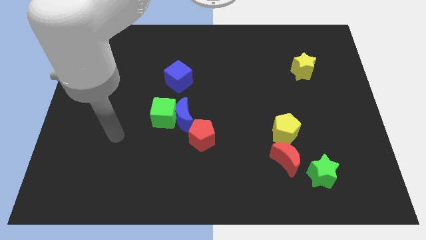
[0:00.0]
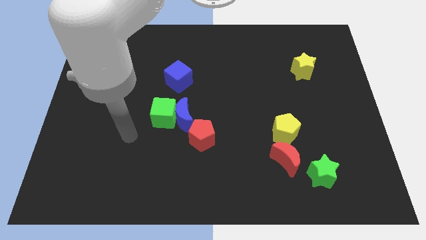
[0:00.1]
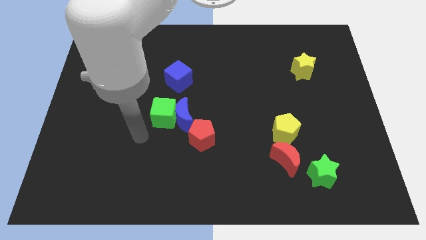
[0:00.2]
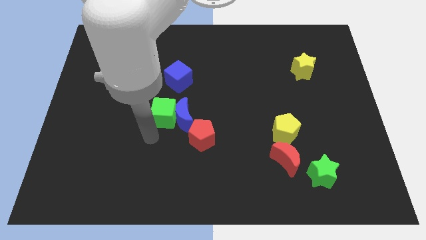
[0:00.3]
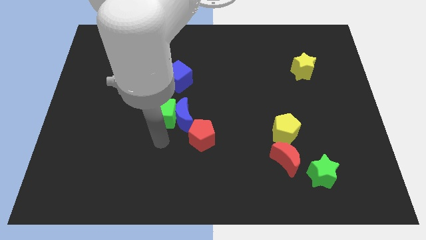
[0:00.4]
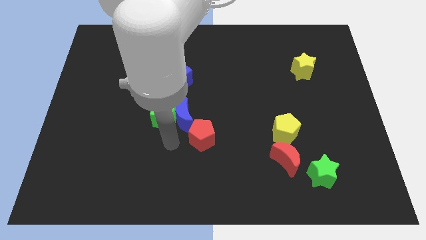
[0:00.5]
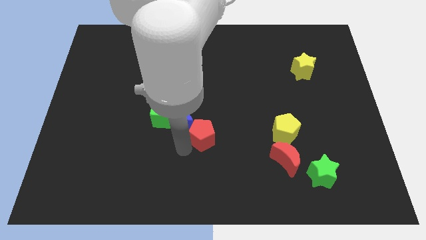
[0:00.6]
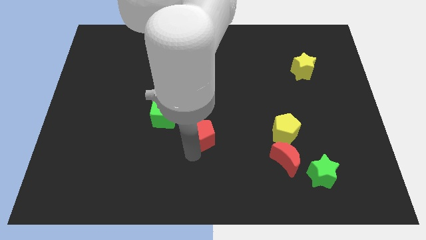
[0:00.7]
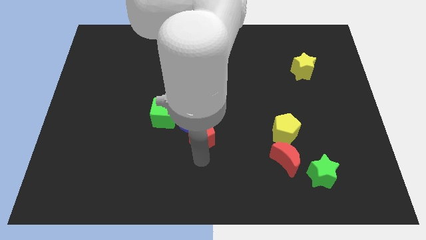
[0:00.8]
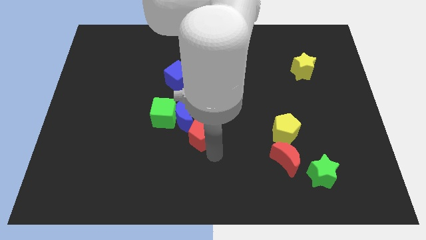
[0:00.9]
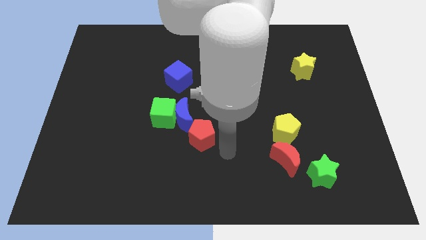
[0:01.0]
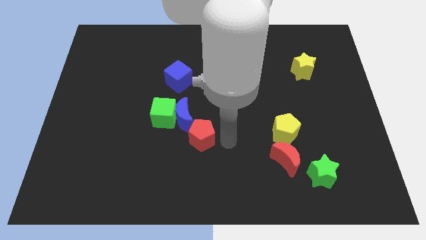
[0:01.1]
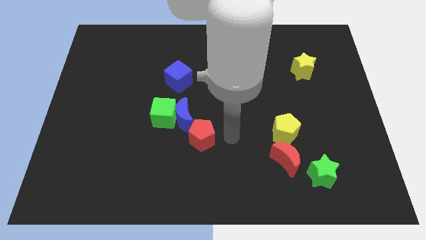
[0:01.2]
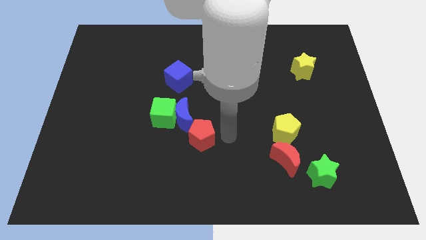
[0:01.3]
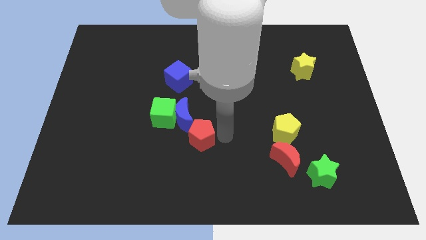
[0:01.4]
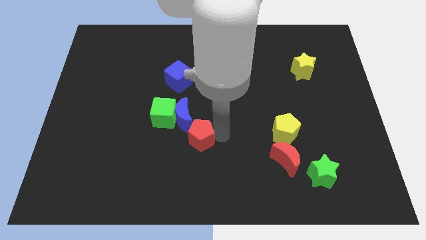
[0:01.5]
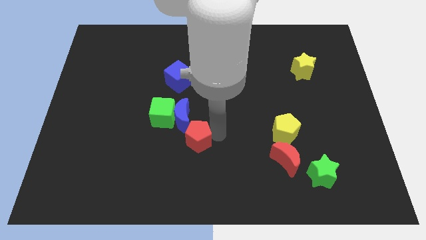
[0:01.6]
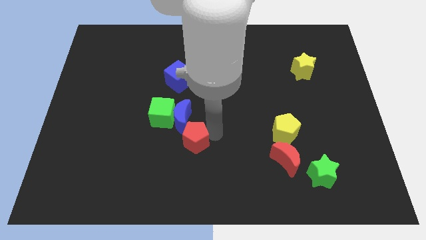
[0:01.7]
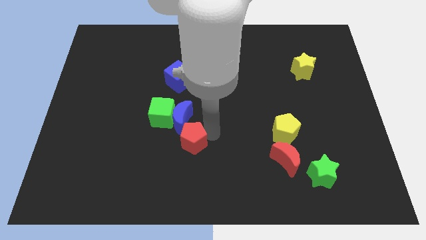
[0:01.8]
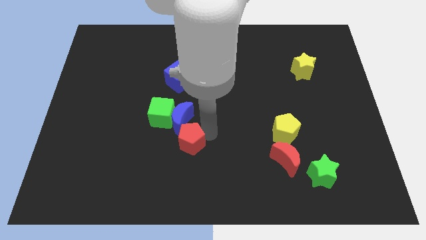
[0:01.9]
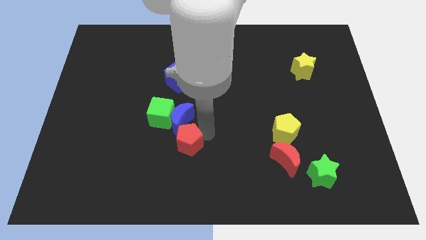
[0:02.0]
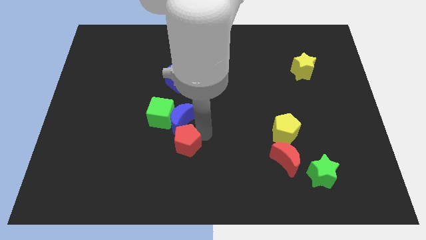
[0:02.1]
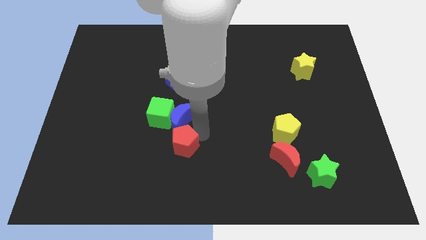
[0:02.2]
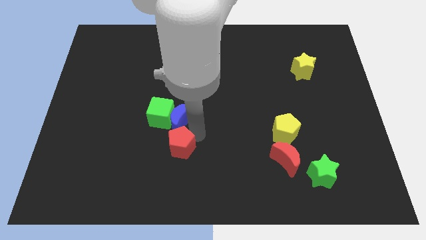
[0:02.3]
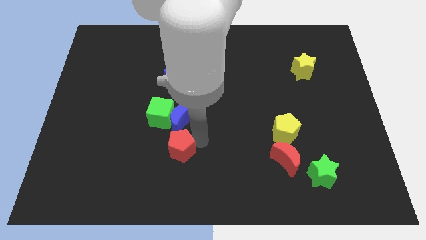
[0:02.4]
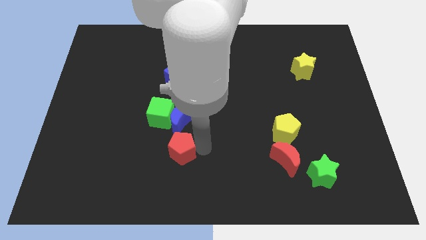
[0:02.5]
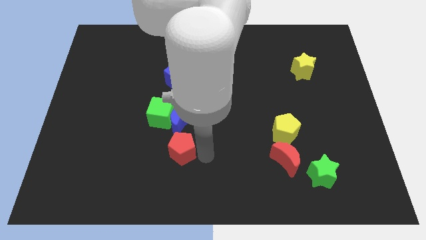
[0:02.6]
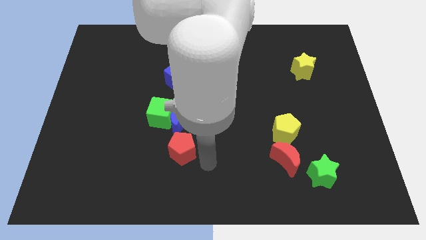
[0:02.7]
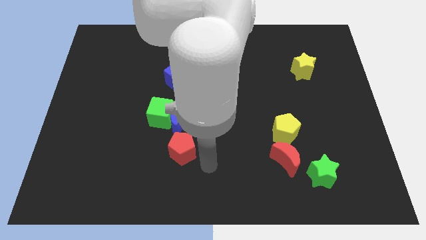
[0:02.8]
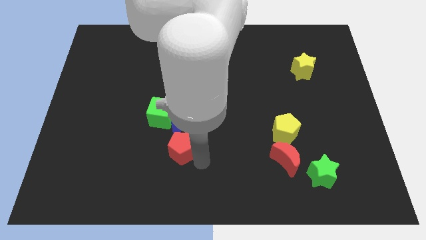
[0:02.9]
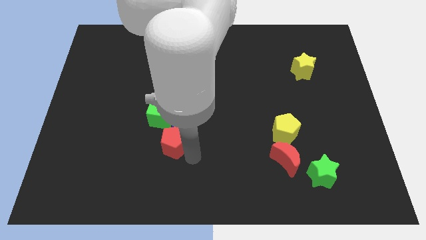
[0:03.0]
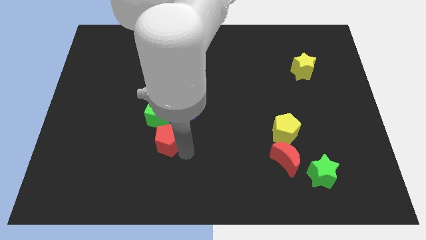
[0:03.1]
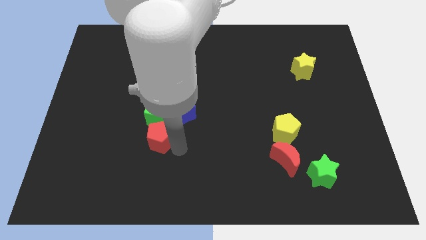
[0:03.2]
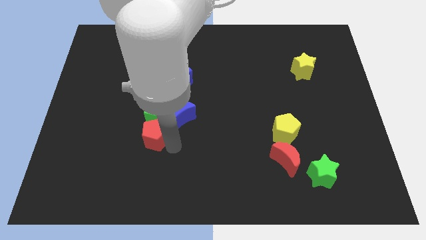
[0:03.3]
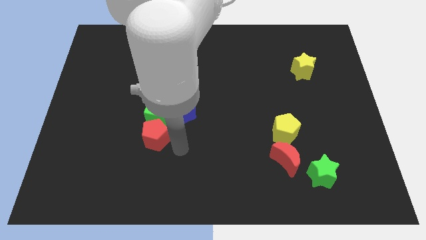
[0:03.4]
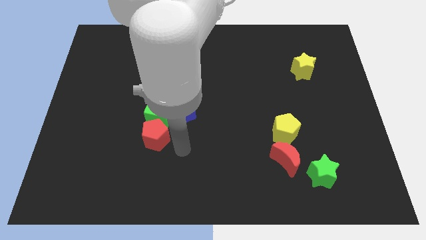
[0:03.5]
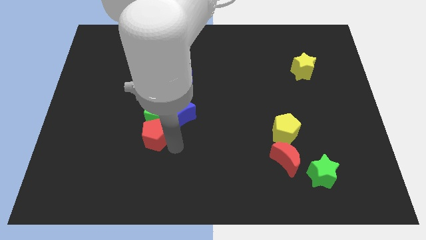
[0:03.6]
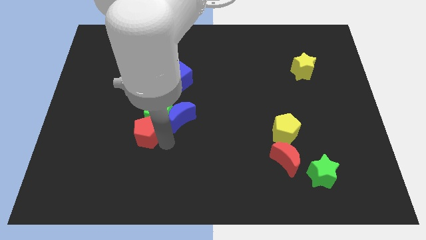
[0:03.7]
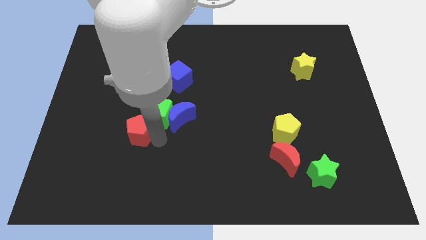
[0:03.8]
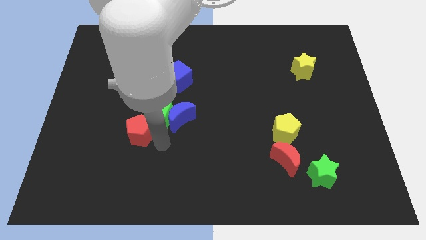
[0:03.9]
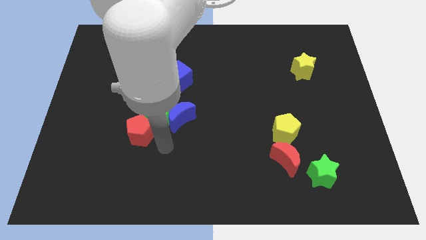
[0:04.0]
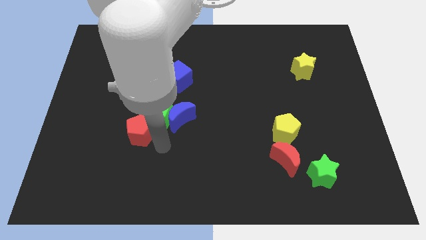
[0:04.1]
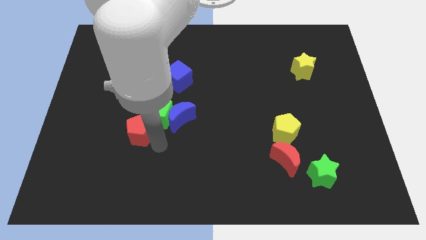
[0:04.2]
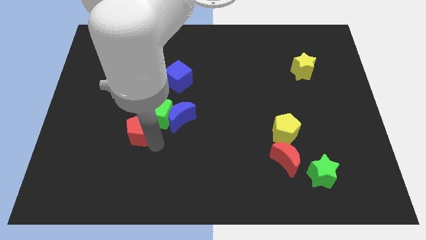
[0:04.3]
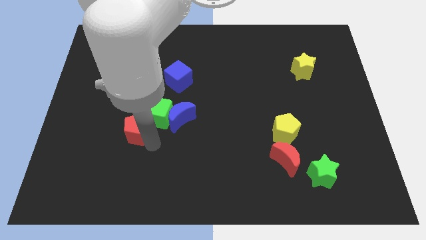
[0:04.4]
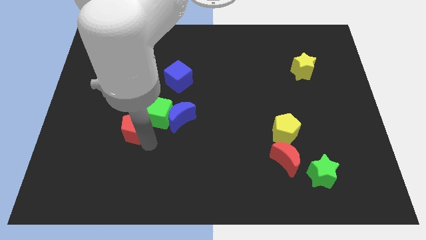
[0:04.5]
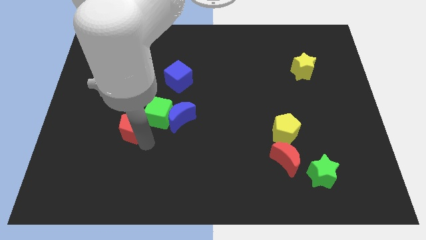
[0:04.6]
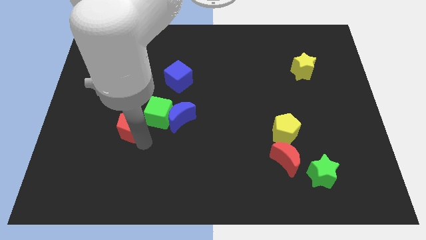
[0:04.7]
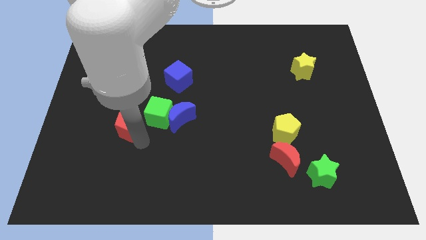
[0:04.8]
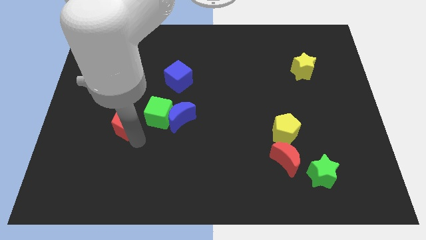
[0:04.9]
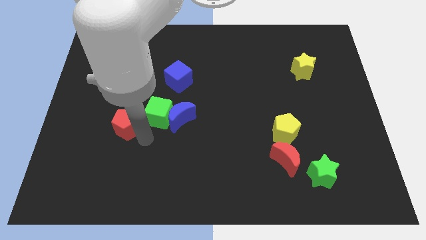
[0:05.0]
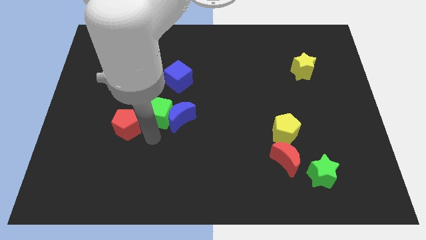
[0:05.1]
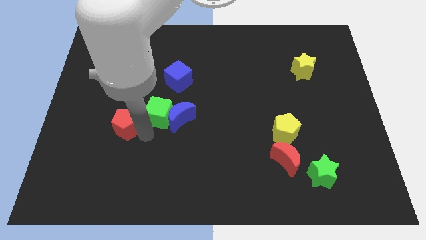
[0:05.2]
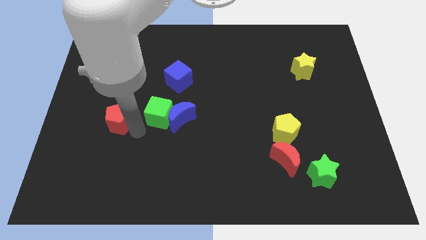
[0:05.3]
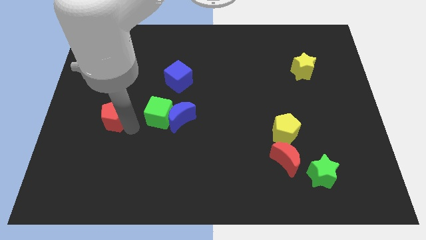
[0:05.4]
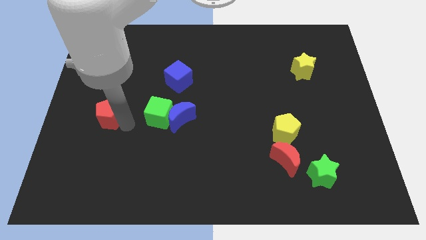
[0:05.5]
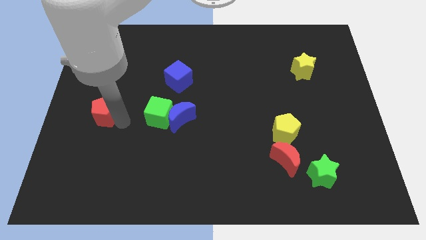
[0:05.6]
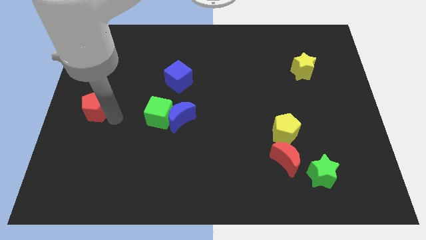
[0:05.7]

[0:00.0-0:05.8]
push the red pentagon to the center left

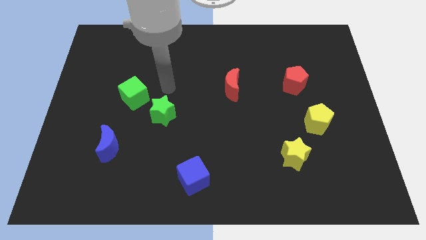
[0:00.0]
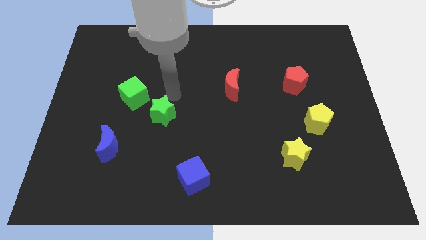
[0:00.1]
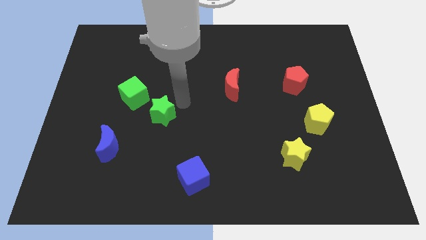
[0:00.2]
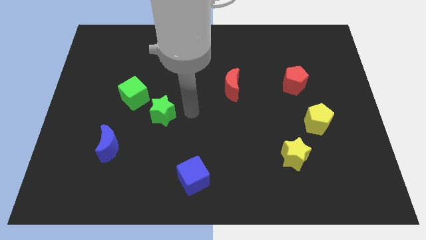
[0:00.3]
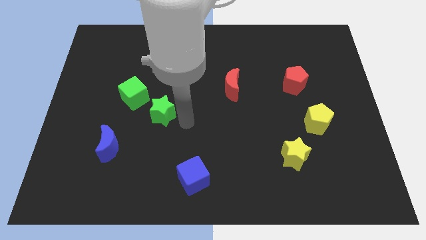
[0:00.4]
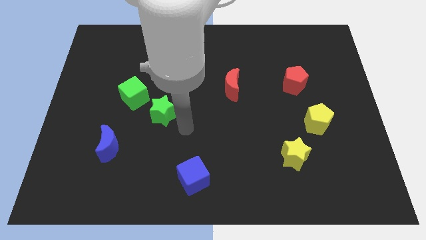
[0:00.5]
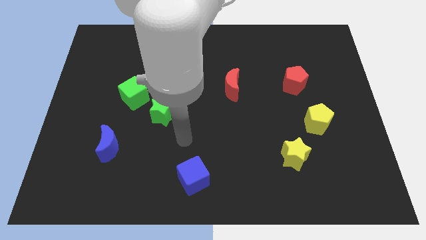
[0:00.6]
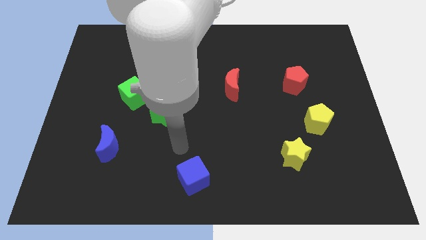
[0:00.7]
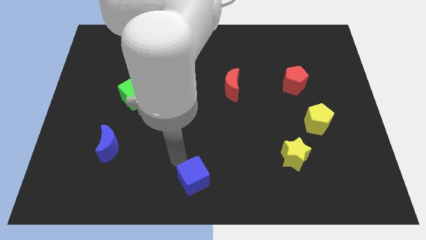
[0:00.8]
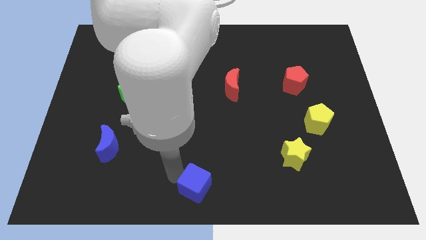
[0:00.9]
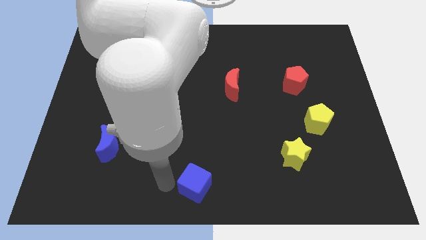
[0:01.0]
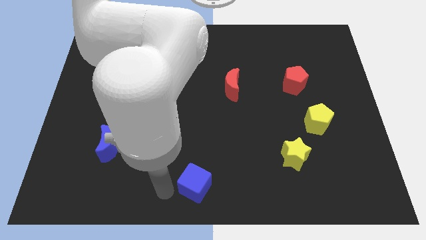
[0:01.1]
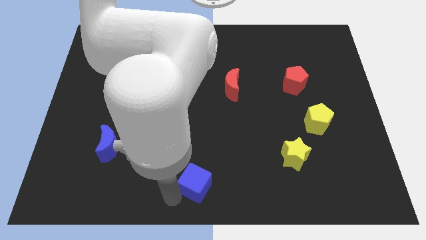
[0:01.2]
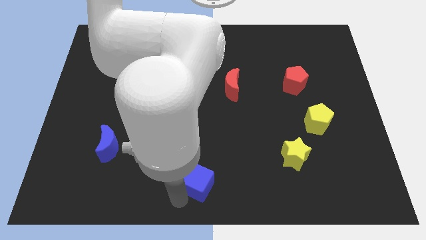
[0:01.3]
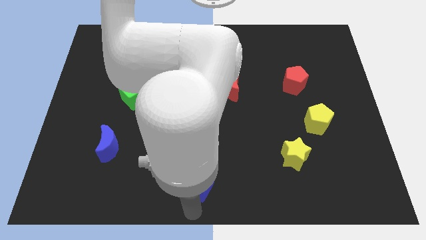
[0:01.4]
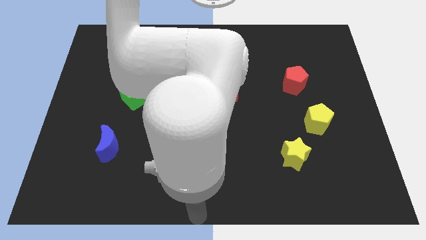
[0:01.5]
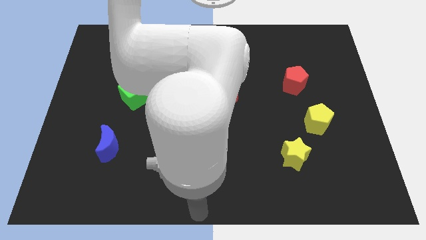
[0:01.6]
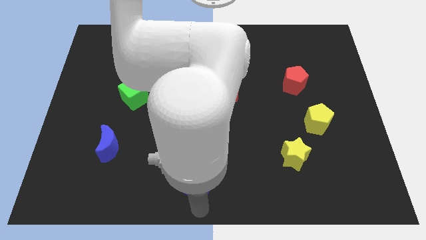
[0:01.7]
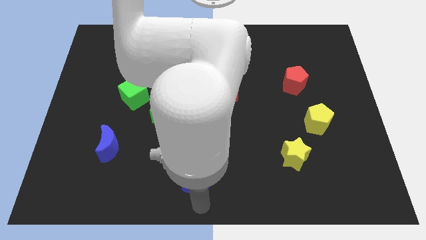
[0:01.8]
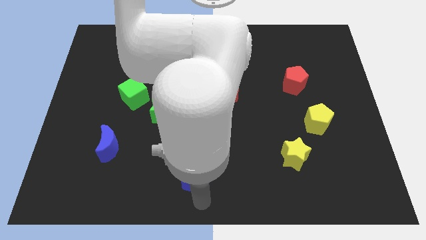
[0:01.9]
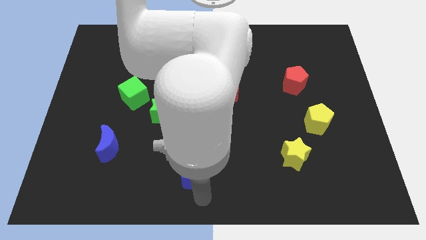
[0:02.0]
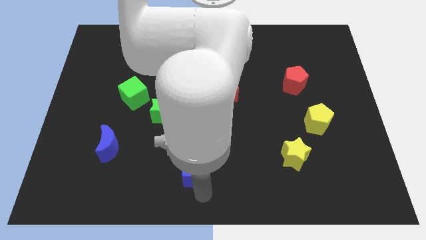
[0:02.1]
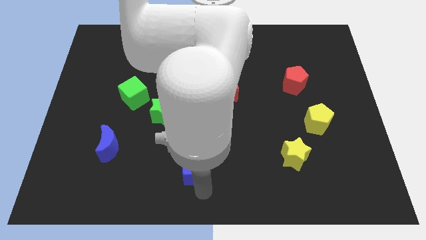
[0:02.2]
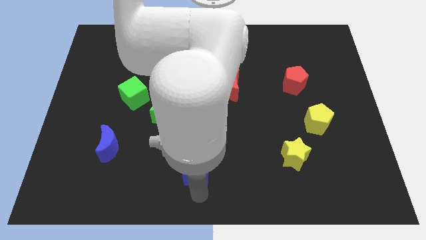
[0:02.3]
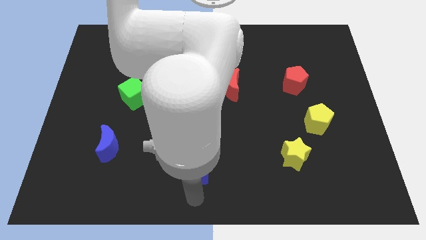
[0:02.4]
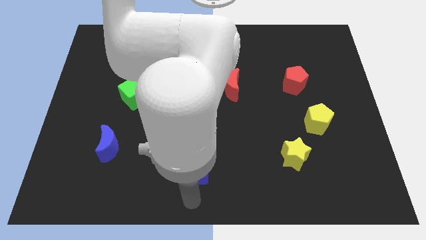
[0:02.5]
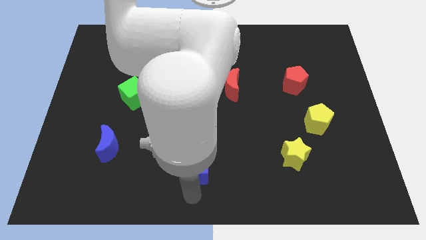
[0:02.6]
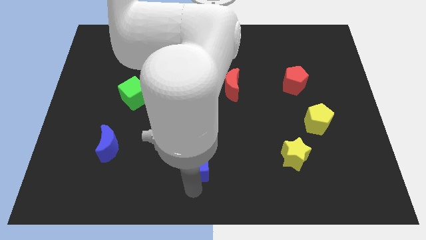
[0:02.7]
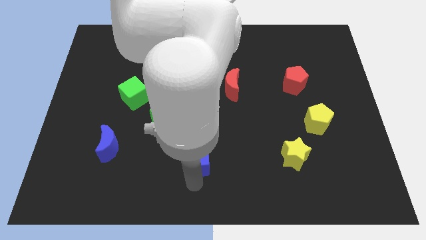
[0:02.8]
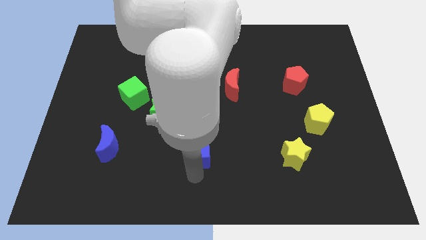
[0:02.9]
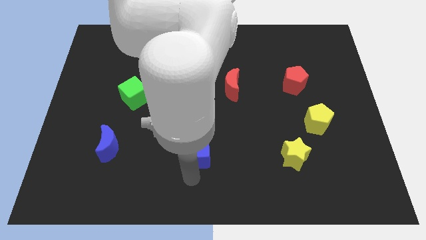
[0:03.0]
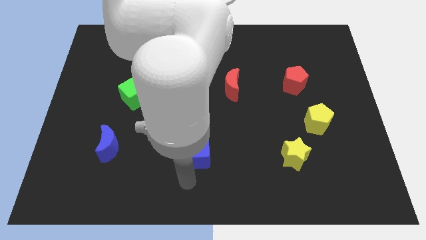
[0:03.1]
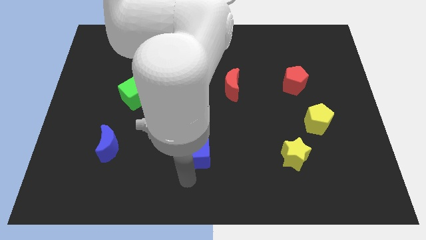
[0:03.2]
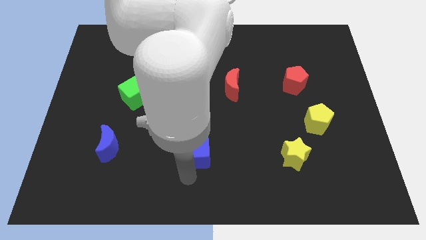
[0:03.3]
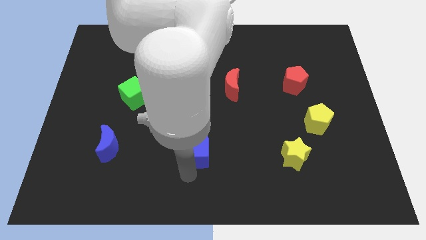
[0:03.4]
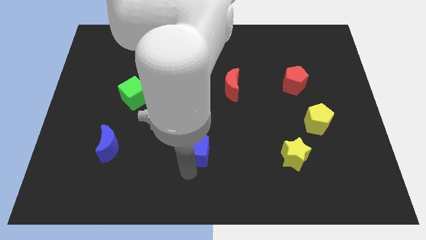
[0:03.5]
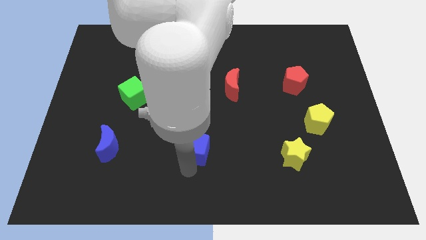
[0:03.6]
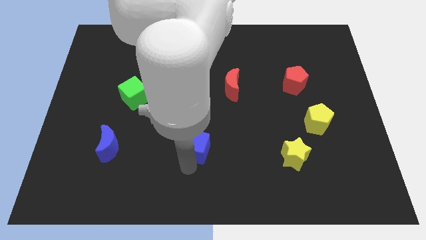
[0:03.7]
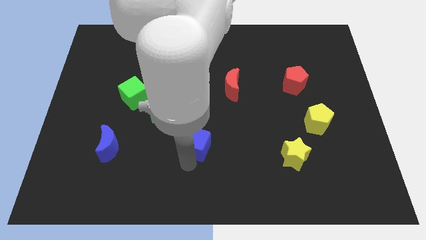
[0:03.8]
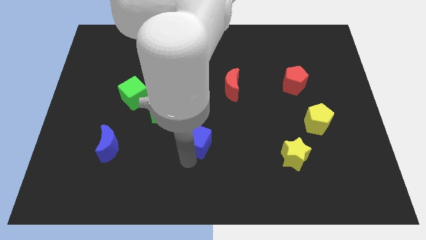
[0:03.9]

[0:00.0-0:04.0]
push the blue cube to the middle
